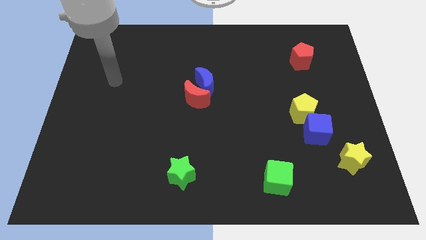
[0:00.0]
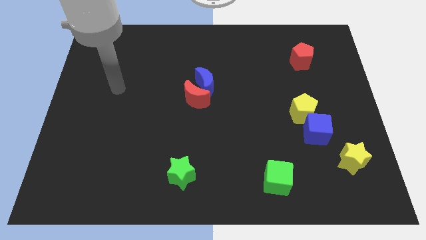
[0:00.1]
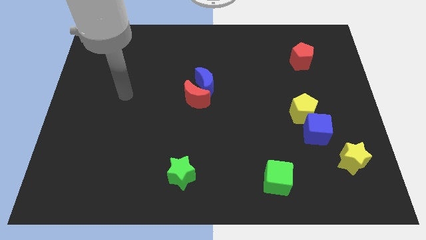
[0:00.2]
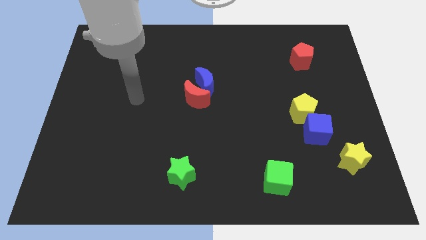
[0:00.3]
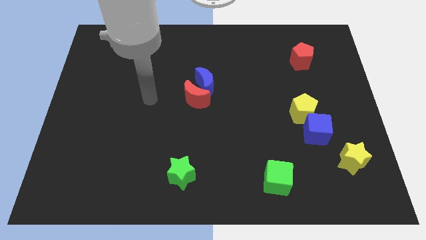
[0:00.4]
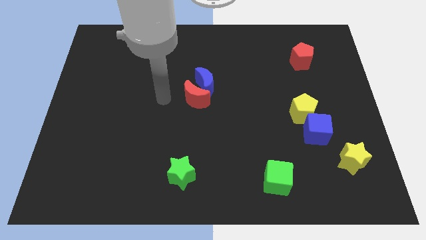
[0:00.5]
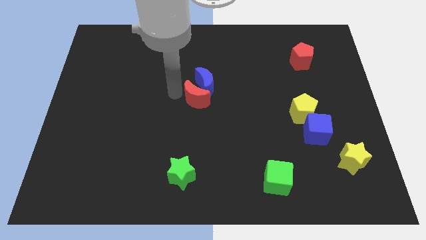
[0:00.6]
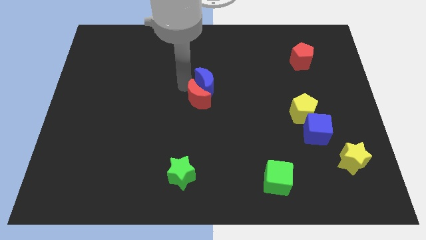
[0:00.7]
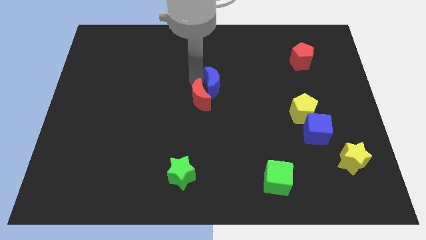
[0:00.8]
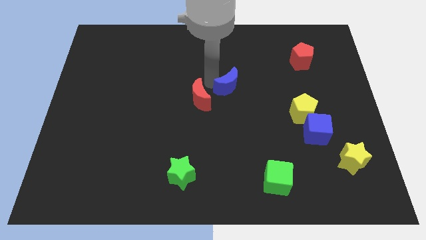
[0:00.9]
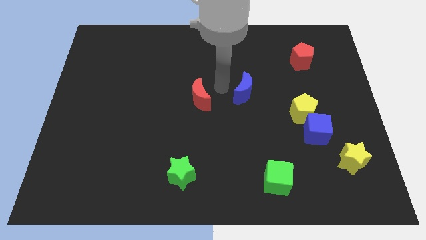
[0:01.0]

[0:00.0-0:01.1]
separate the red moon from the blue moon

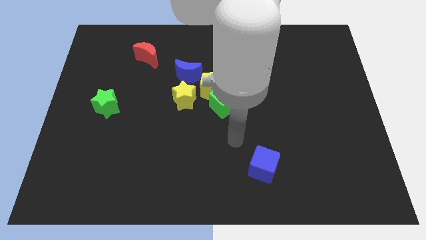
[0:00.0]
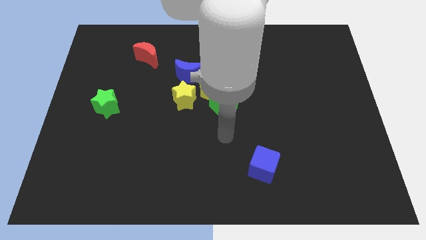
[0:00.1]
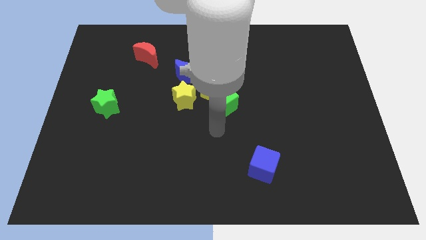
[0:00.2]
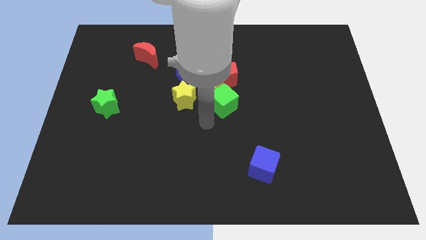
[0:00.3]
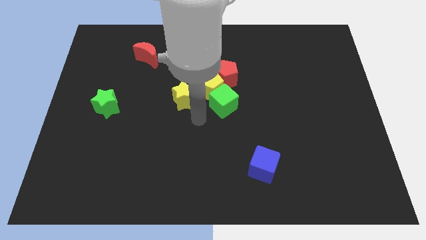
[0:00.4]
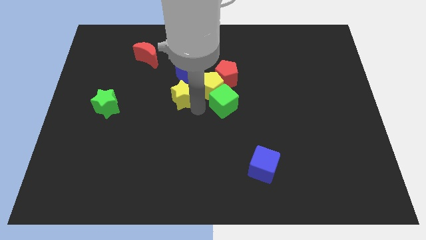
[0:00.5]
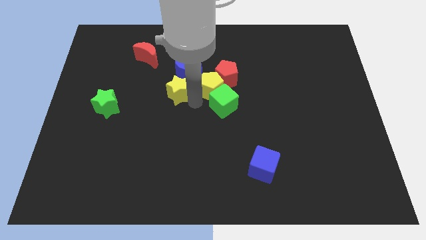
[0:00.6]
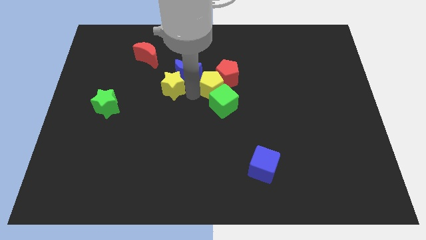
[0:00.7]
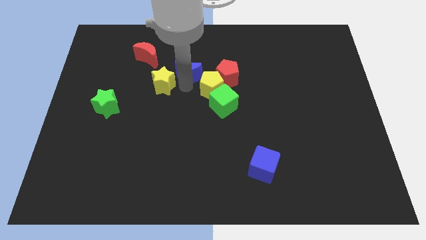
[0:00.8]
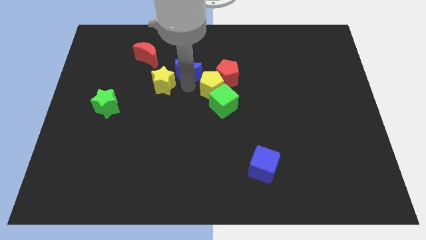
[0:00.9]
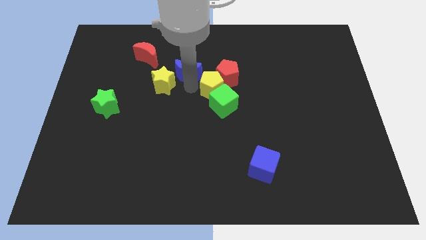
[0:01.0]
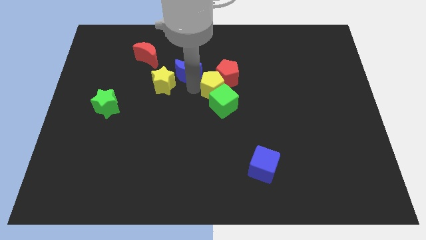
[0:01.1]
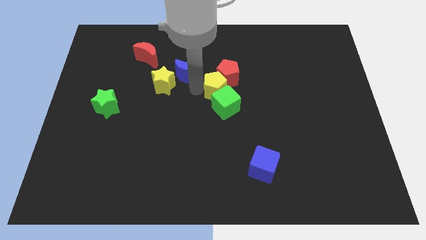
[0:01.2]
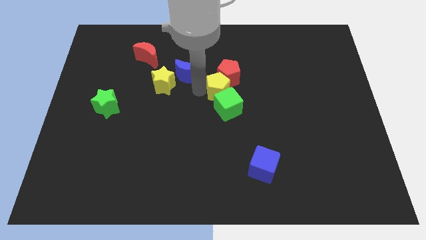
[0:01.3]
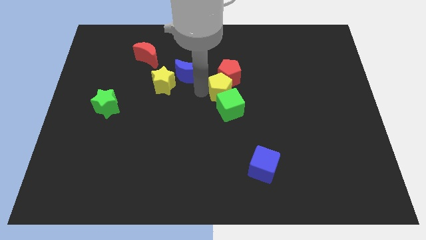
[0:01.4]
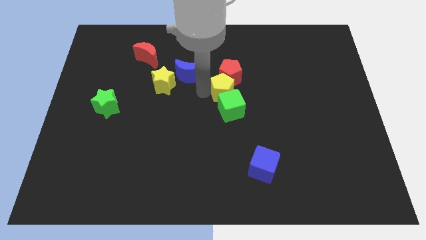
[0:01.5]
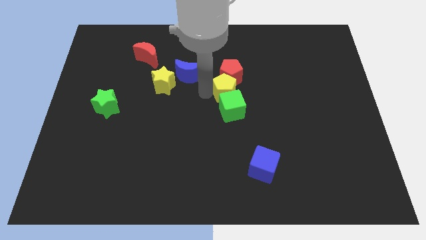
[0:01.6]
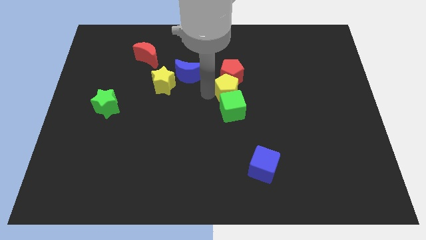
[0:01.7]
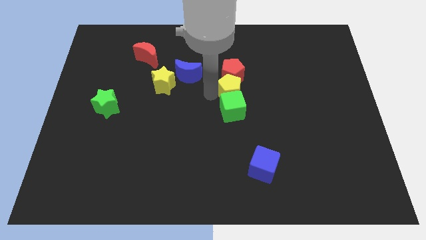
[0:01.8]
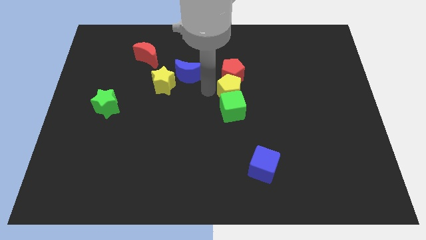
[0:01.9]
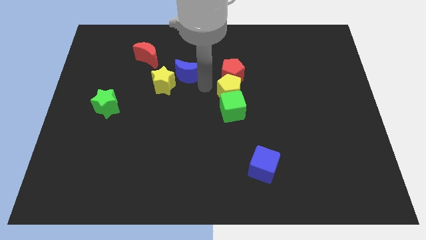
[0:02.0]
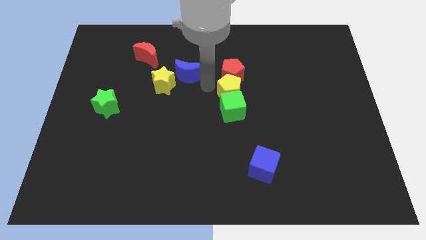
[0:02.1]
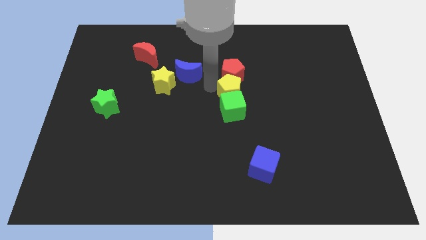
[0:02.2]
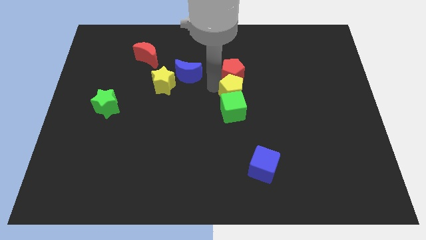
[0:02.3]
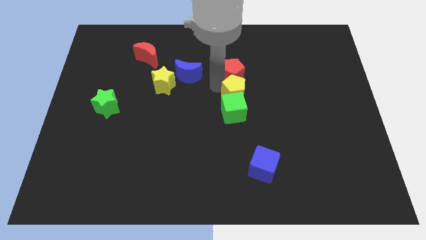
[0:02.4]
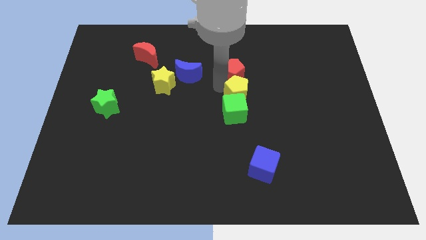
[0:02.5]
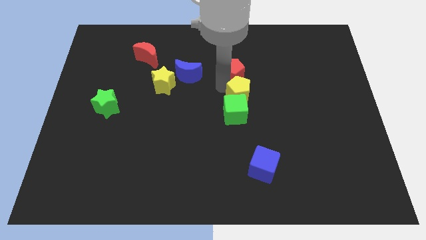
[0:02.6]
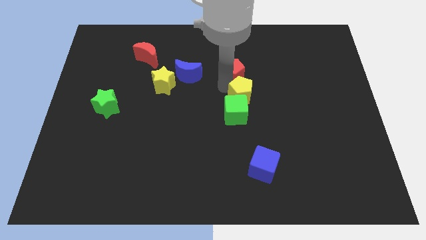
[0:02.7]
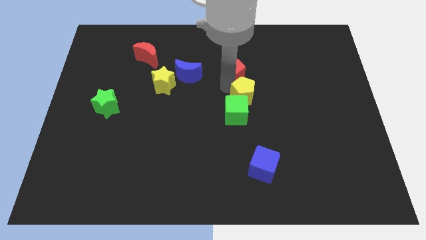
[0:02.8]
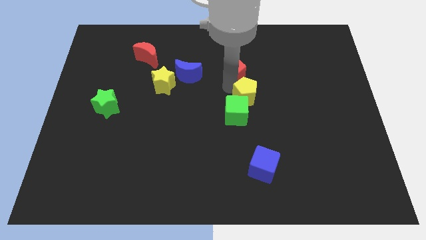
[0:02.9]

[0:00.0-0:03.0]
pull the yellow pentagon apart from the group of blocks

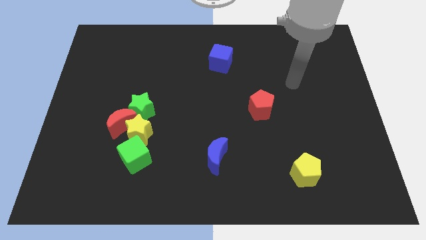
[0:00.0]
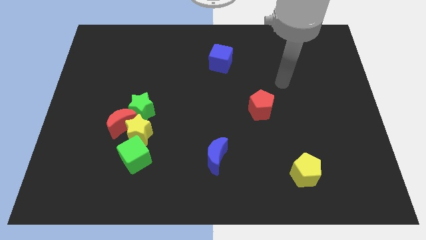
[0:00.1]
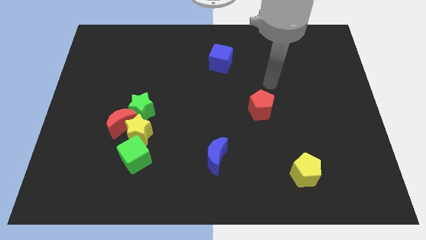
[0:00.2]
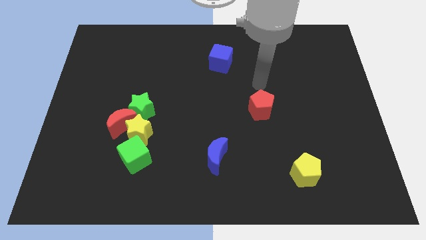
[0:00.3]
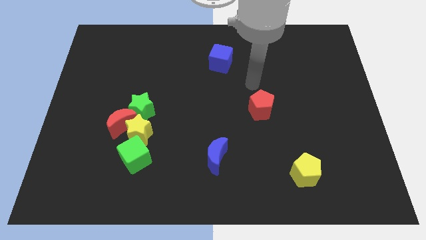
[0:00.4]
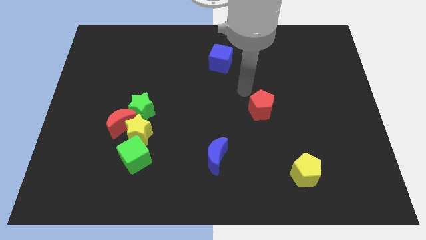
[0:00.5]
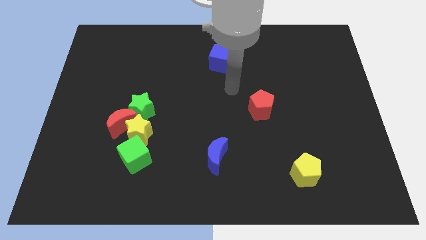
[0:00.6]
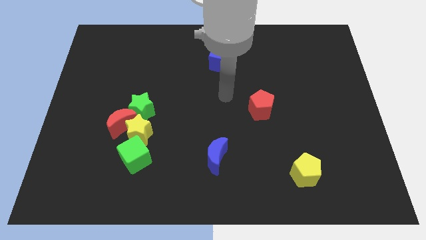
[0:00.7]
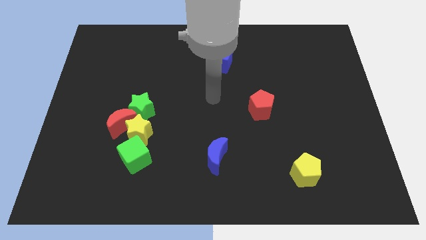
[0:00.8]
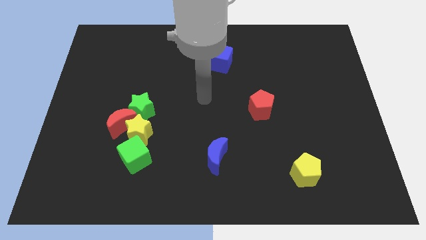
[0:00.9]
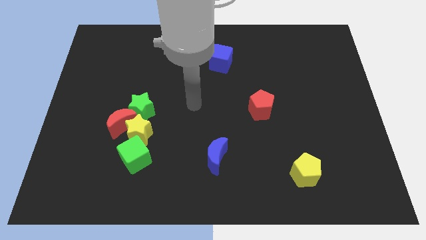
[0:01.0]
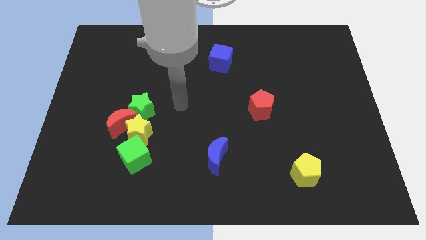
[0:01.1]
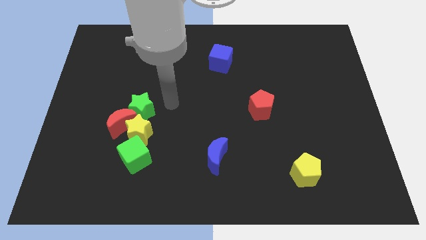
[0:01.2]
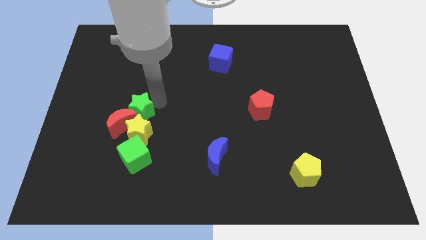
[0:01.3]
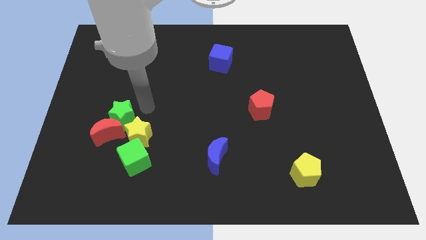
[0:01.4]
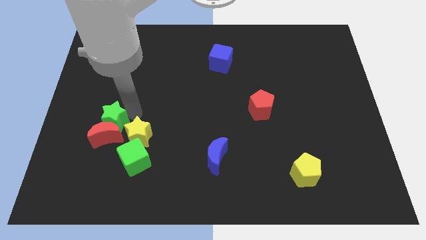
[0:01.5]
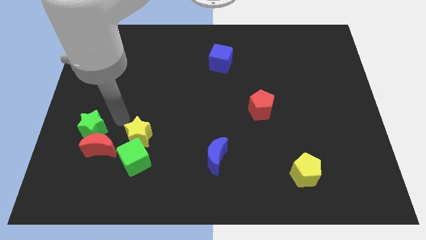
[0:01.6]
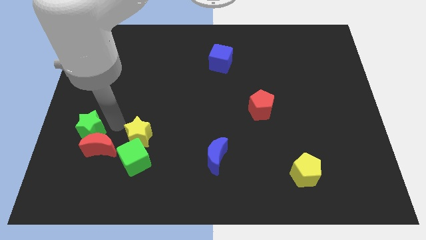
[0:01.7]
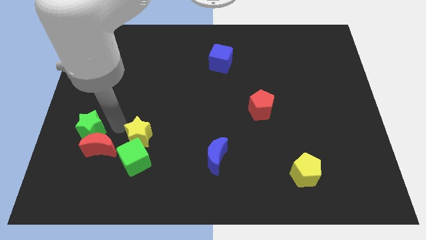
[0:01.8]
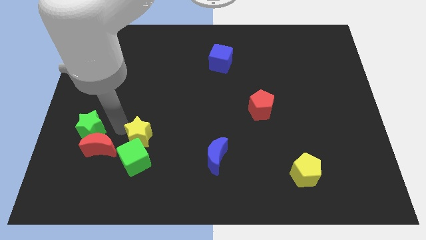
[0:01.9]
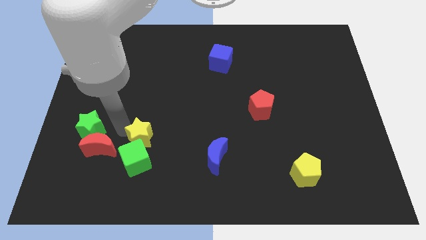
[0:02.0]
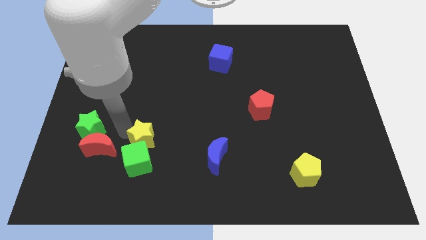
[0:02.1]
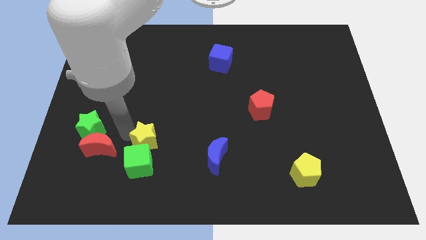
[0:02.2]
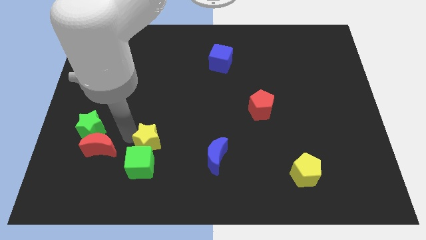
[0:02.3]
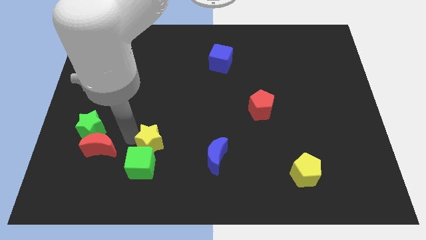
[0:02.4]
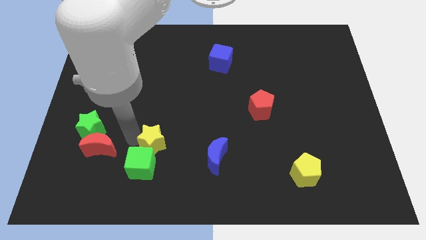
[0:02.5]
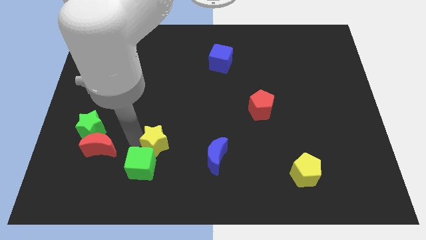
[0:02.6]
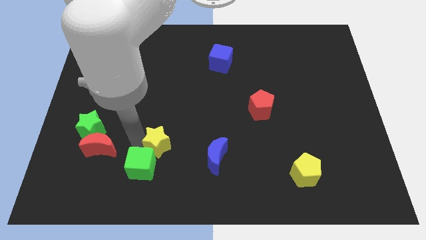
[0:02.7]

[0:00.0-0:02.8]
move the yellow star away from the group

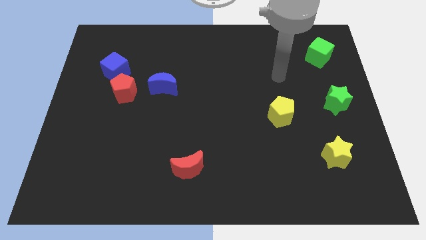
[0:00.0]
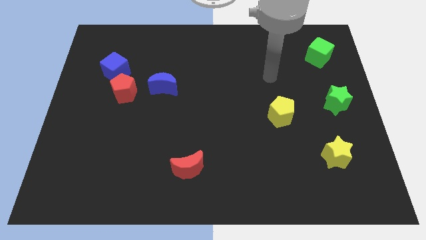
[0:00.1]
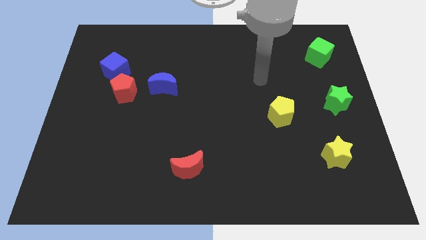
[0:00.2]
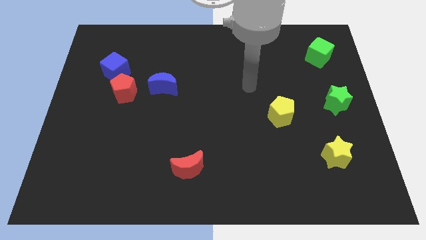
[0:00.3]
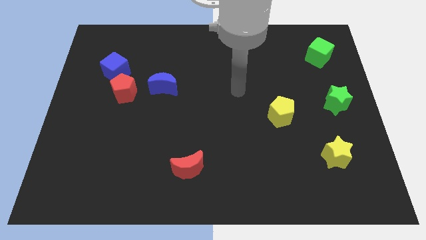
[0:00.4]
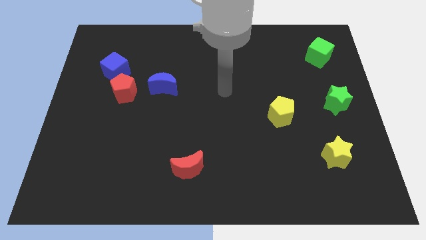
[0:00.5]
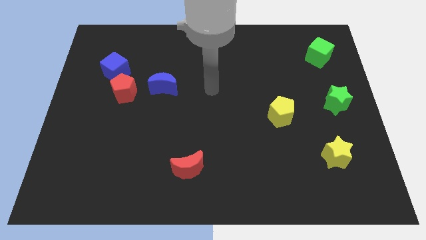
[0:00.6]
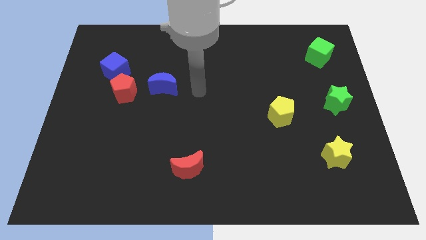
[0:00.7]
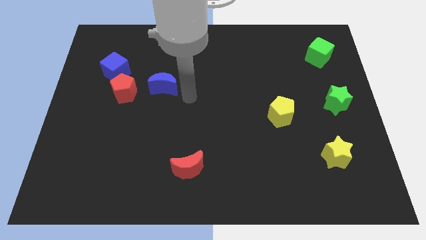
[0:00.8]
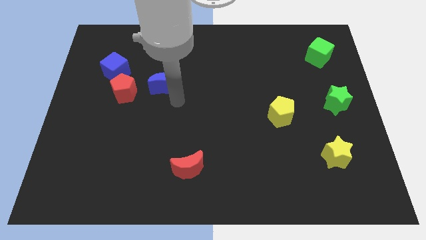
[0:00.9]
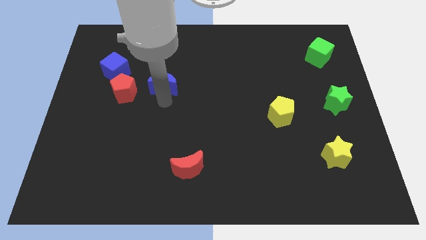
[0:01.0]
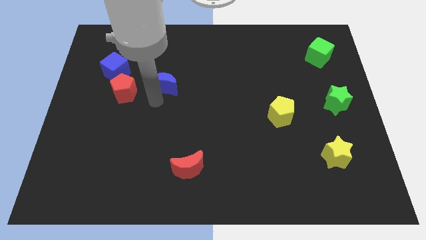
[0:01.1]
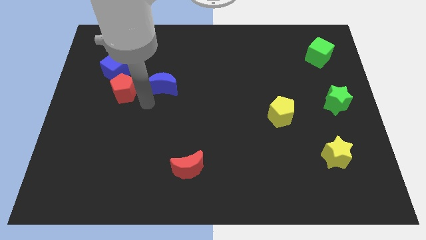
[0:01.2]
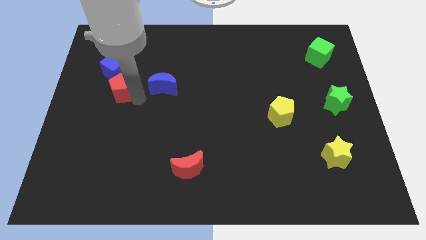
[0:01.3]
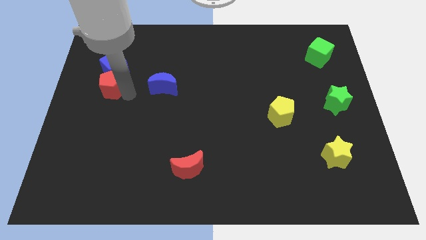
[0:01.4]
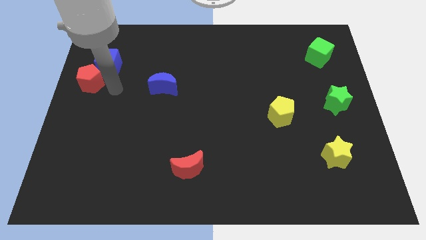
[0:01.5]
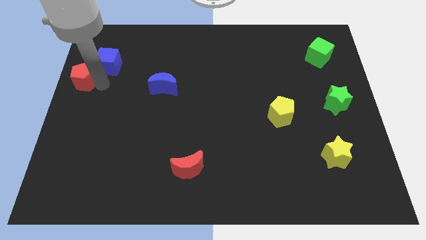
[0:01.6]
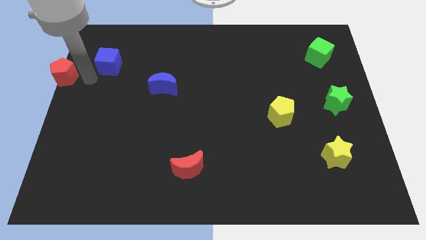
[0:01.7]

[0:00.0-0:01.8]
pull the blue cube apart from the red pentagon

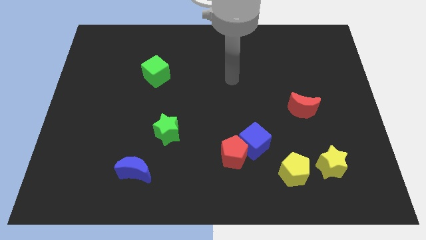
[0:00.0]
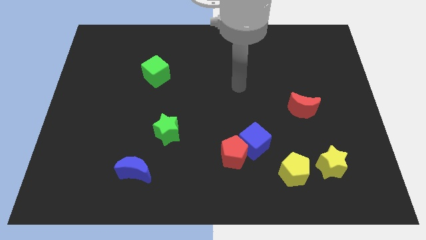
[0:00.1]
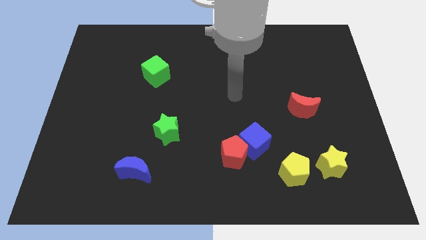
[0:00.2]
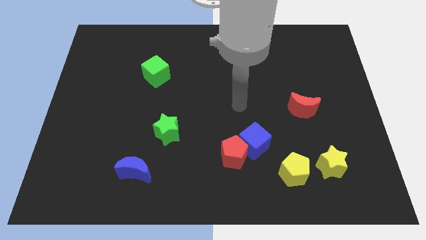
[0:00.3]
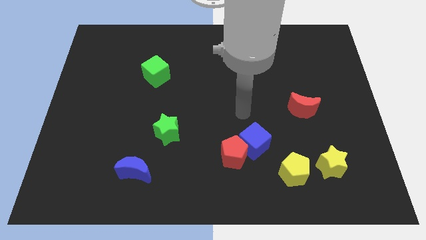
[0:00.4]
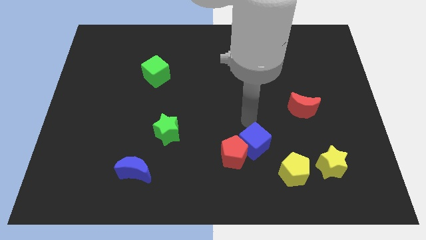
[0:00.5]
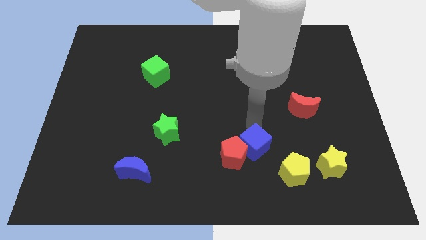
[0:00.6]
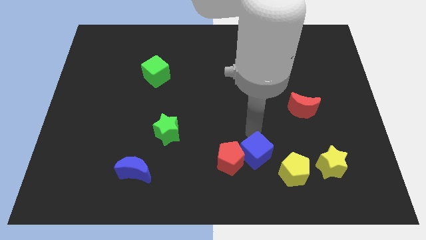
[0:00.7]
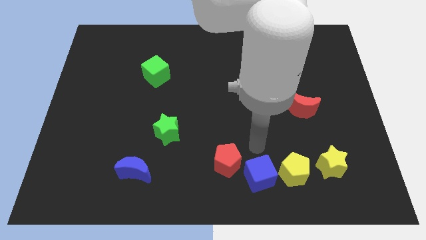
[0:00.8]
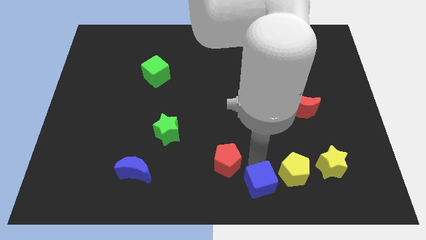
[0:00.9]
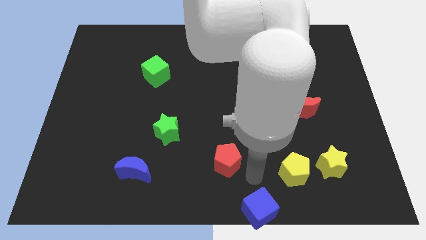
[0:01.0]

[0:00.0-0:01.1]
pull the red pentagon apart from the blue cube
